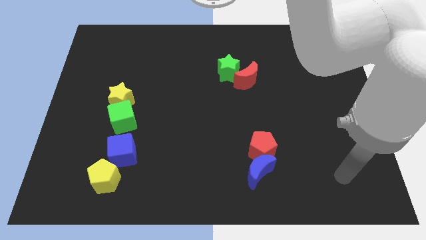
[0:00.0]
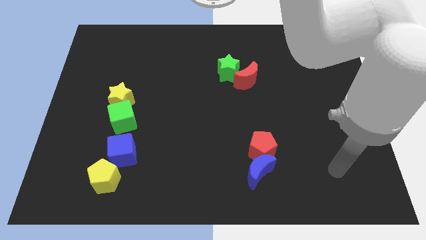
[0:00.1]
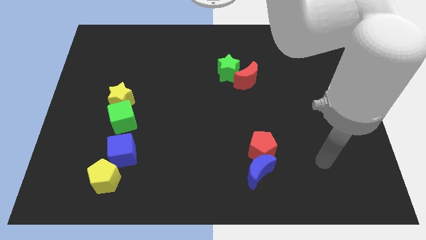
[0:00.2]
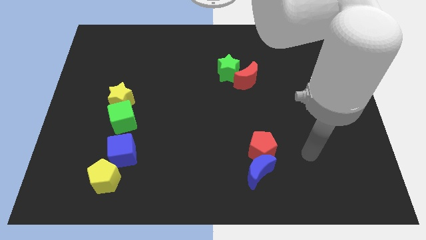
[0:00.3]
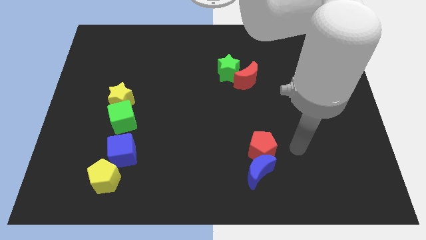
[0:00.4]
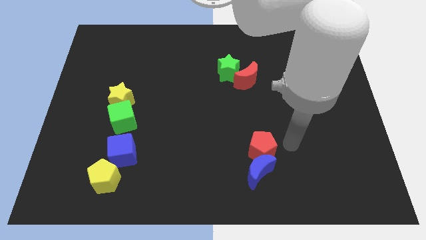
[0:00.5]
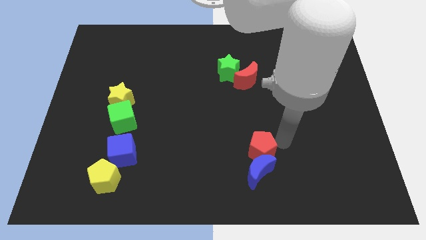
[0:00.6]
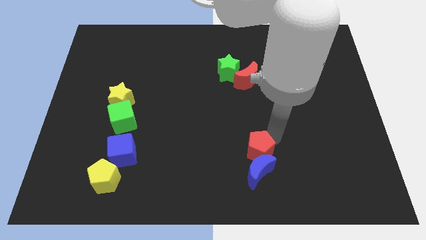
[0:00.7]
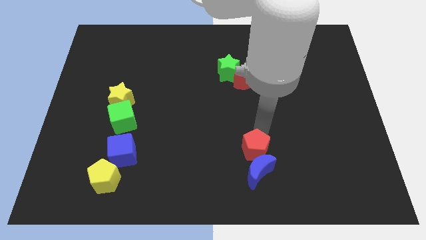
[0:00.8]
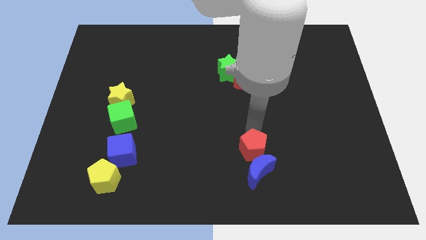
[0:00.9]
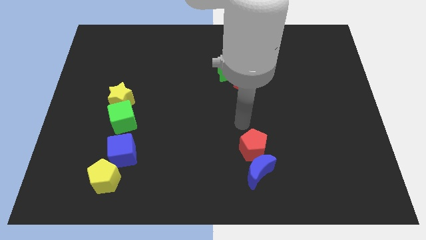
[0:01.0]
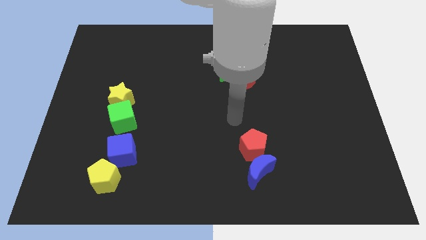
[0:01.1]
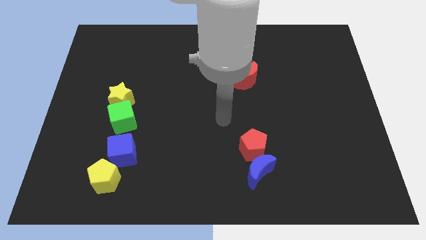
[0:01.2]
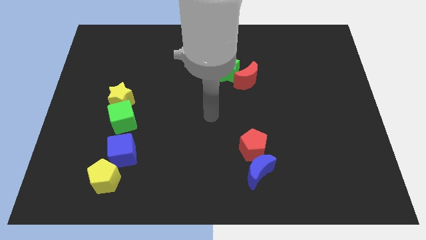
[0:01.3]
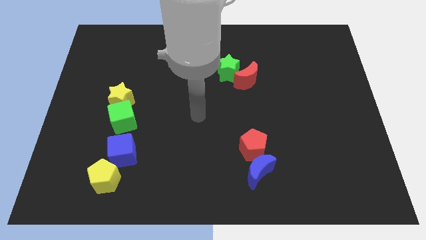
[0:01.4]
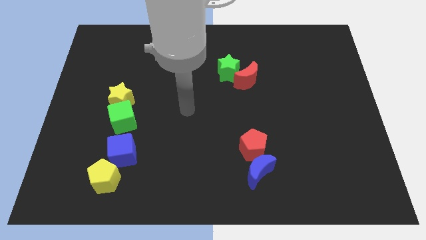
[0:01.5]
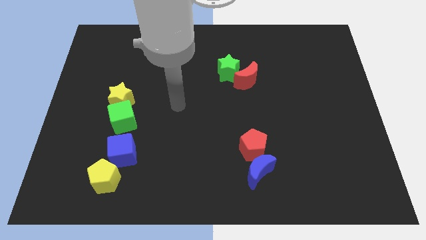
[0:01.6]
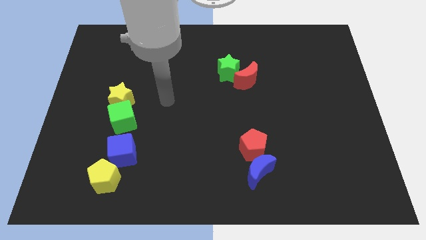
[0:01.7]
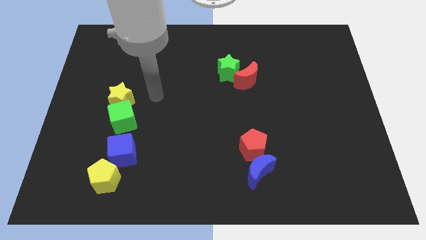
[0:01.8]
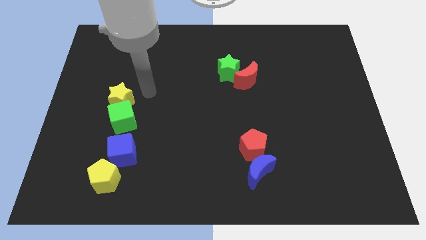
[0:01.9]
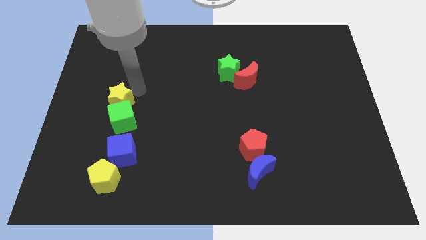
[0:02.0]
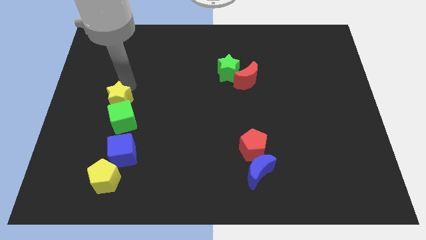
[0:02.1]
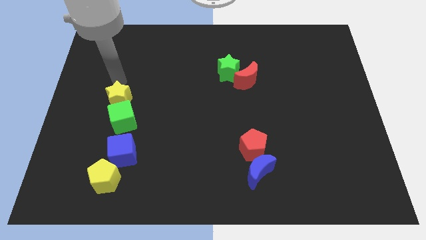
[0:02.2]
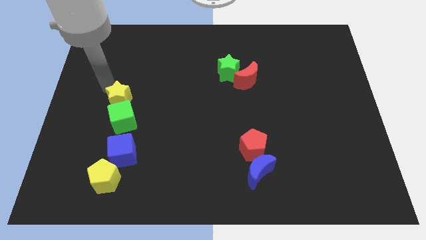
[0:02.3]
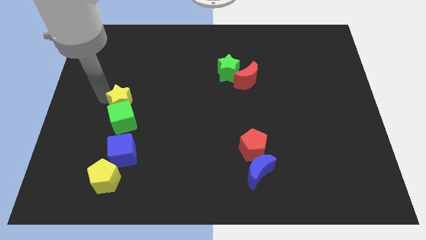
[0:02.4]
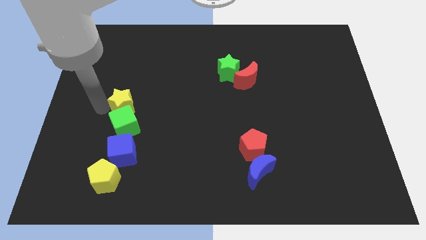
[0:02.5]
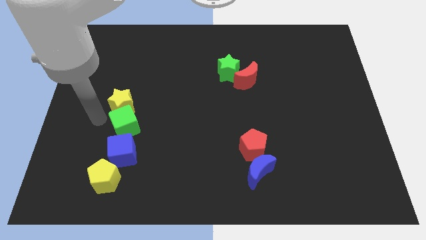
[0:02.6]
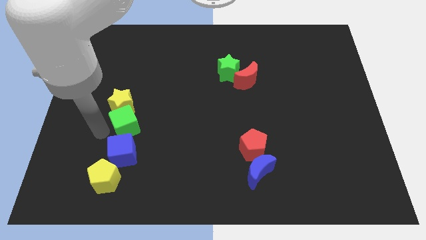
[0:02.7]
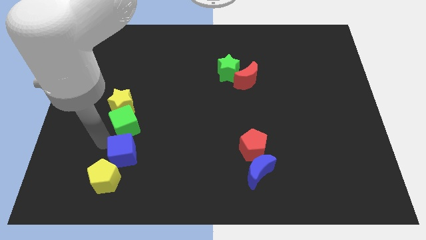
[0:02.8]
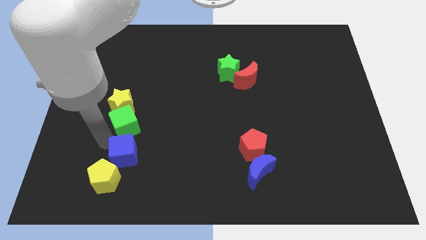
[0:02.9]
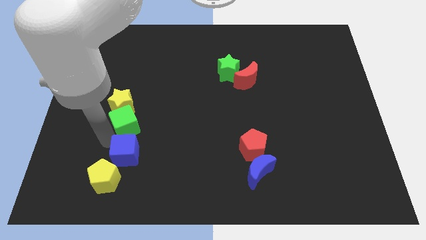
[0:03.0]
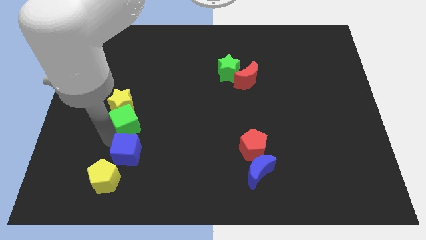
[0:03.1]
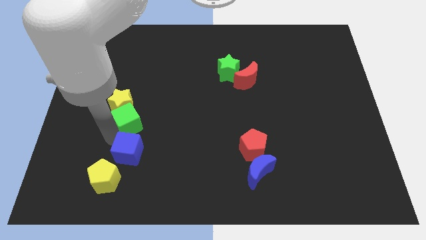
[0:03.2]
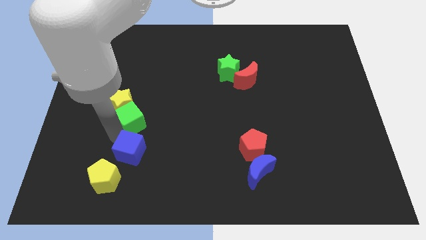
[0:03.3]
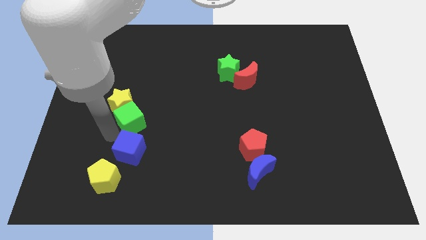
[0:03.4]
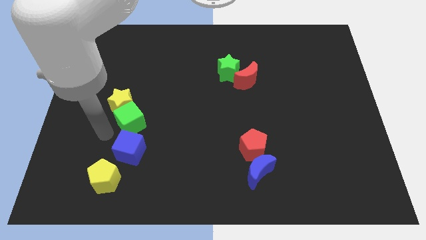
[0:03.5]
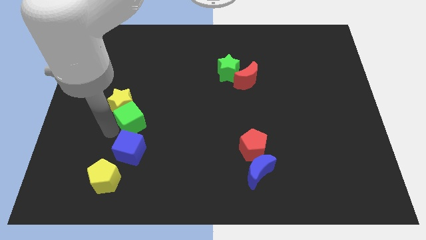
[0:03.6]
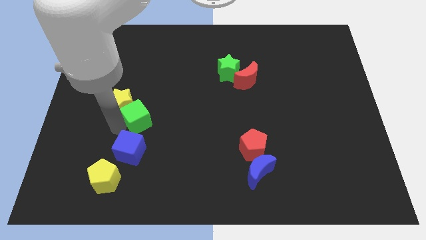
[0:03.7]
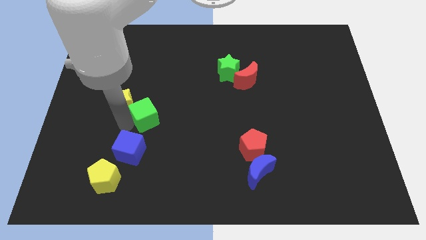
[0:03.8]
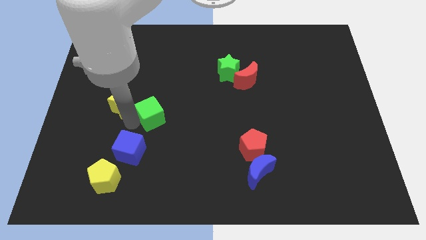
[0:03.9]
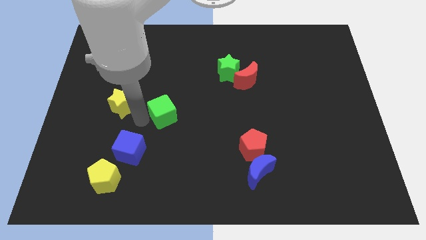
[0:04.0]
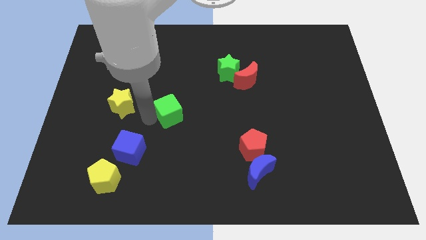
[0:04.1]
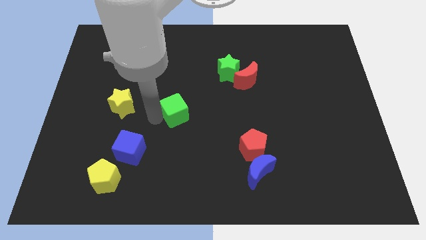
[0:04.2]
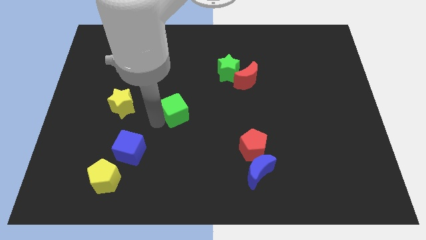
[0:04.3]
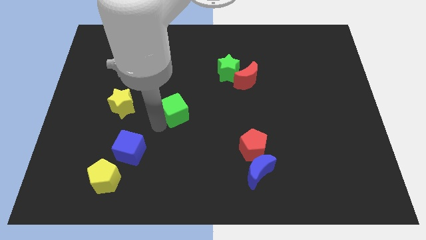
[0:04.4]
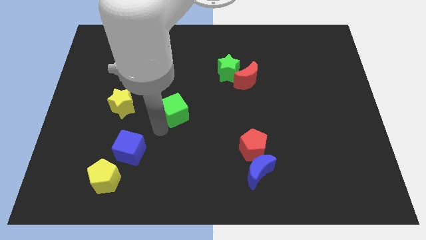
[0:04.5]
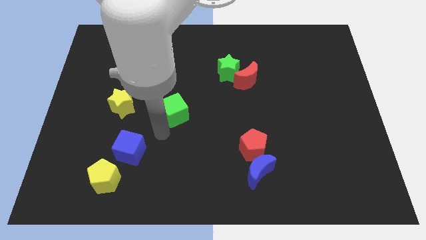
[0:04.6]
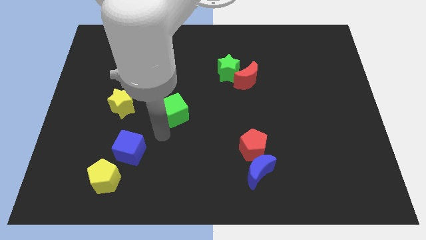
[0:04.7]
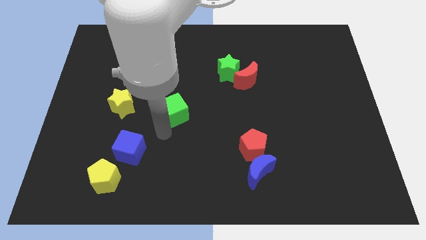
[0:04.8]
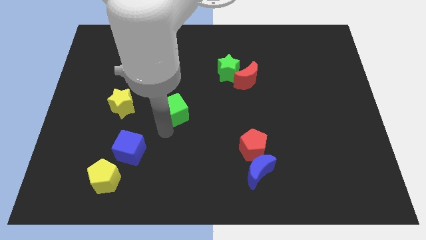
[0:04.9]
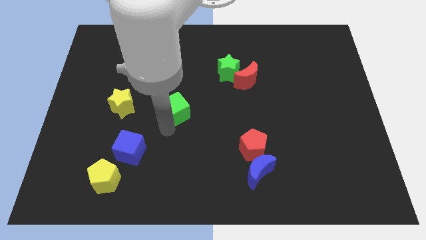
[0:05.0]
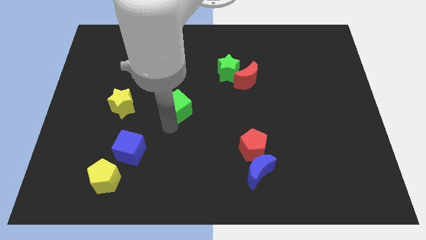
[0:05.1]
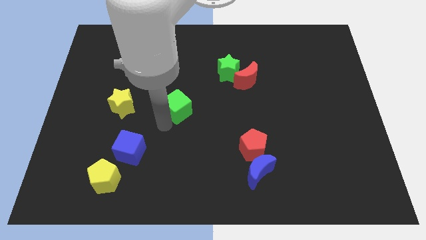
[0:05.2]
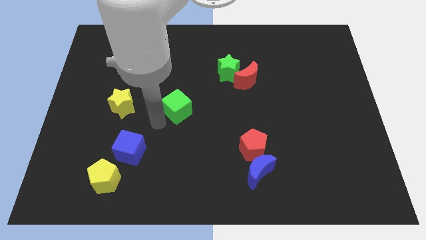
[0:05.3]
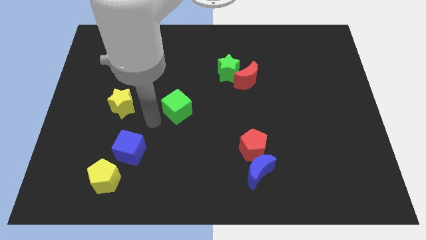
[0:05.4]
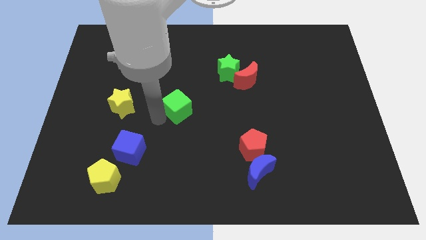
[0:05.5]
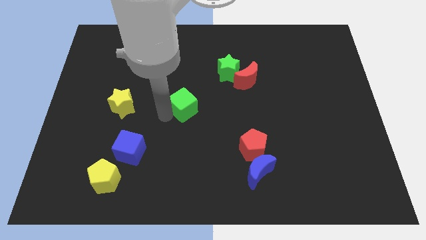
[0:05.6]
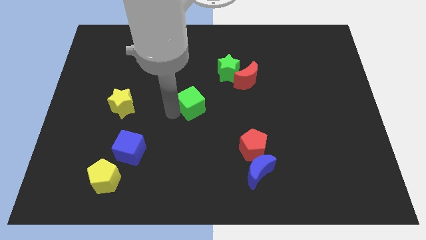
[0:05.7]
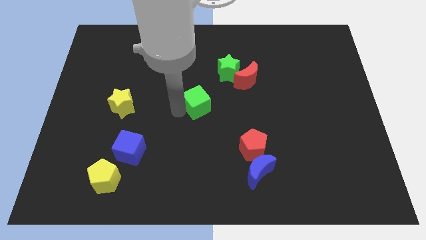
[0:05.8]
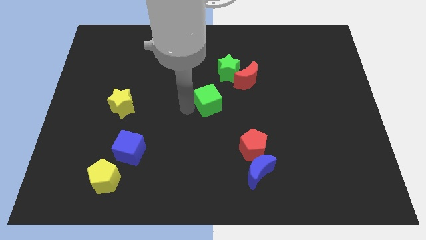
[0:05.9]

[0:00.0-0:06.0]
move the green cube diagonally down and to the left of the red moon

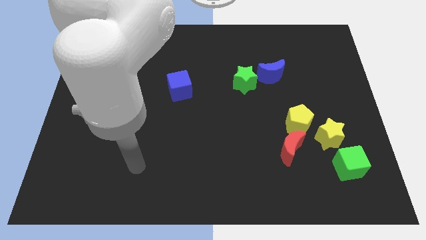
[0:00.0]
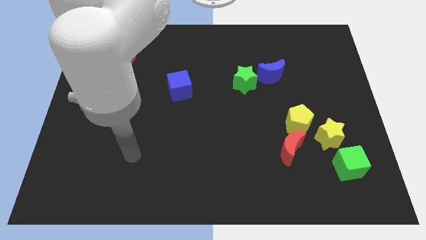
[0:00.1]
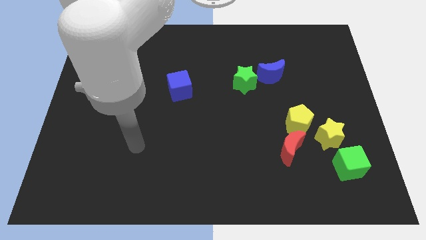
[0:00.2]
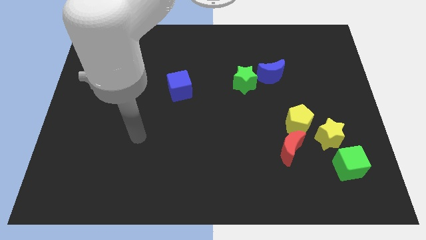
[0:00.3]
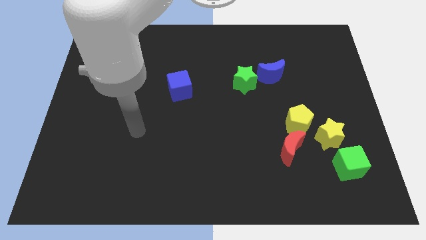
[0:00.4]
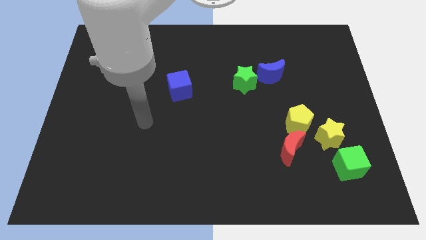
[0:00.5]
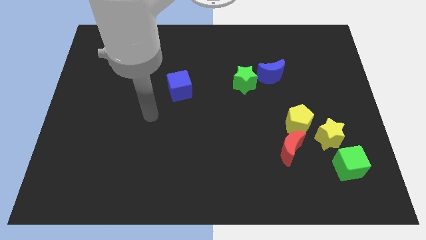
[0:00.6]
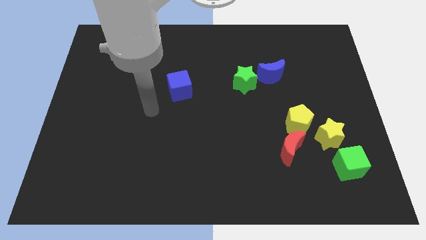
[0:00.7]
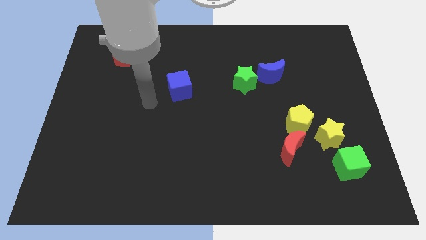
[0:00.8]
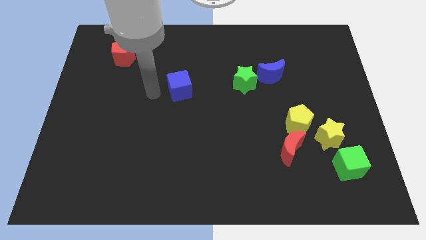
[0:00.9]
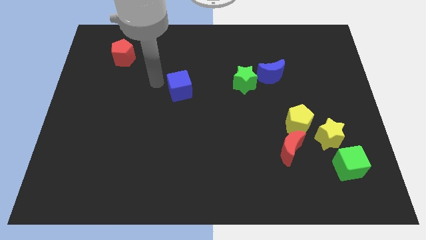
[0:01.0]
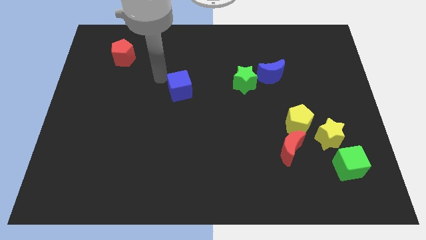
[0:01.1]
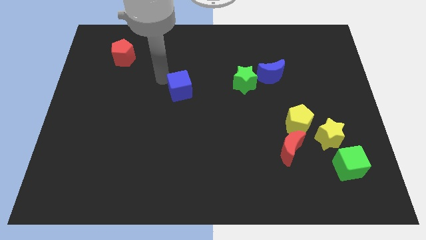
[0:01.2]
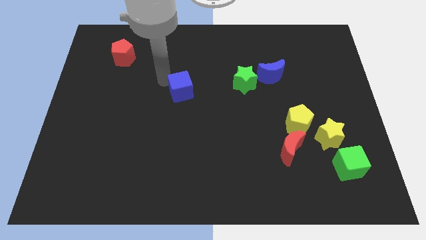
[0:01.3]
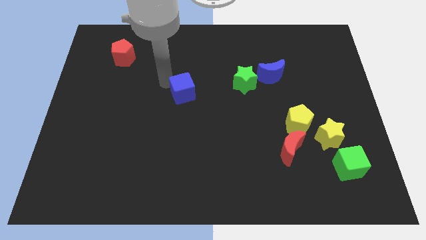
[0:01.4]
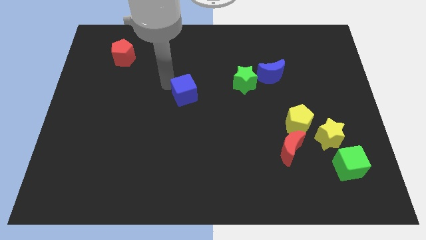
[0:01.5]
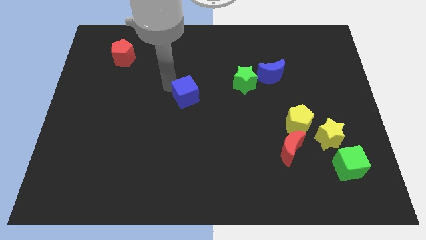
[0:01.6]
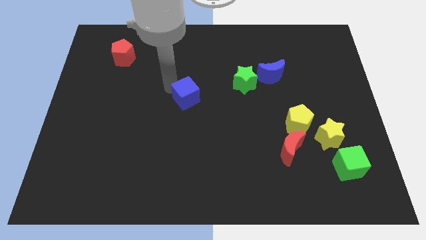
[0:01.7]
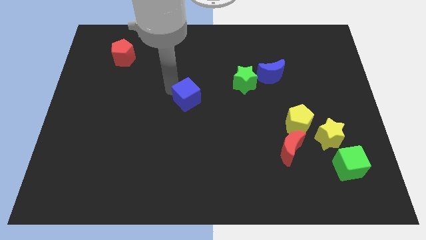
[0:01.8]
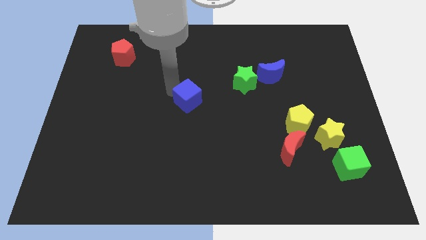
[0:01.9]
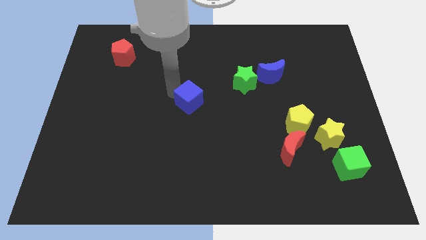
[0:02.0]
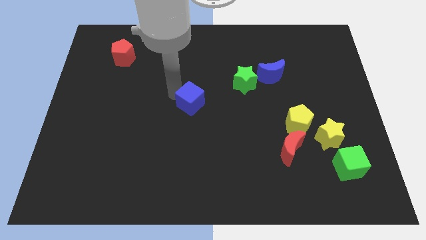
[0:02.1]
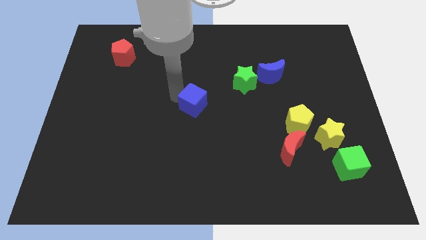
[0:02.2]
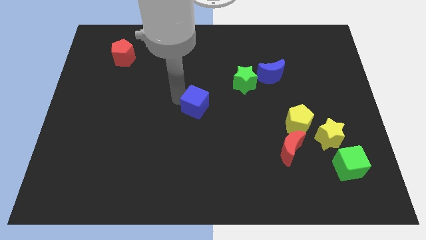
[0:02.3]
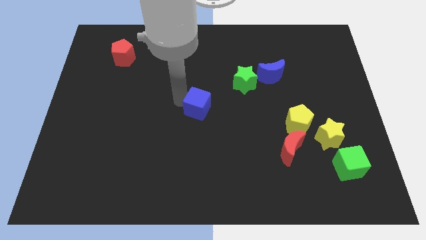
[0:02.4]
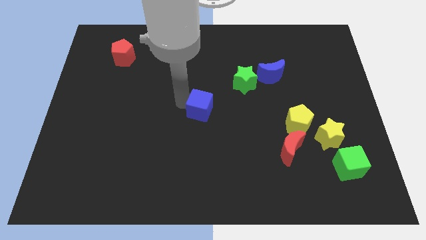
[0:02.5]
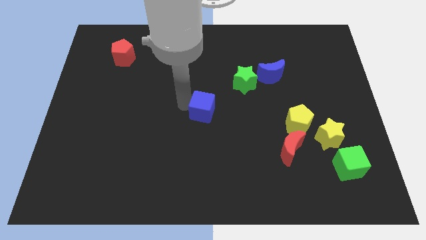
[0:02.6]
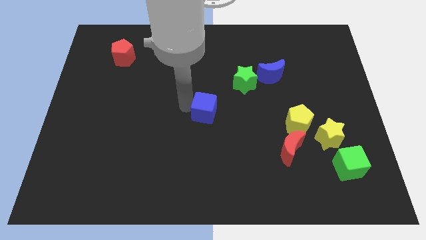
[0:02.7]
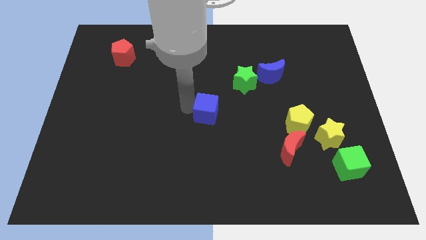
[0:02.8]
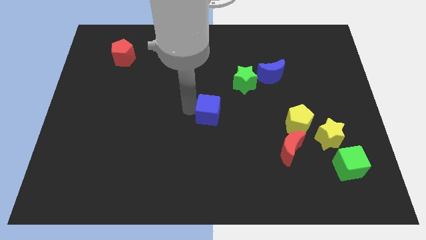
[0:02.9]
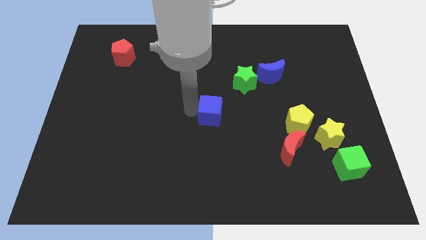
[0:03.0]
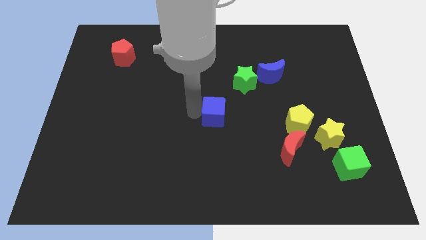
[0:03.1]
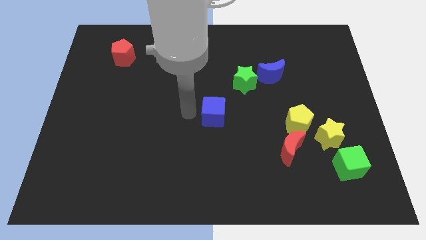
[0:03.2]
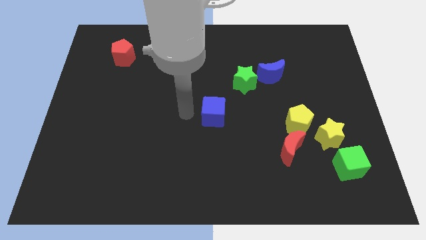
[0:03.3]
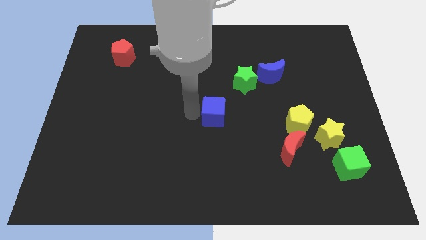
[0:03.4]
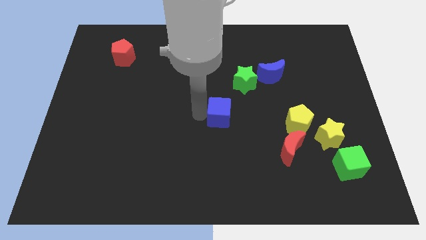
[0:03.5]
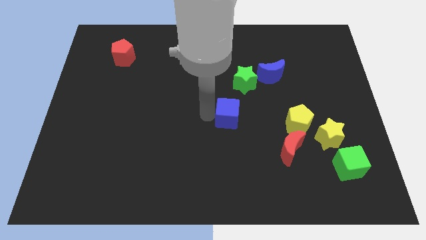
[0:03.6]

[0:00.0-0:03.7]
move the blue cube to the bottom of the green star
